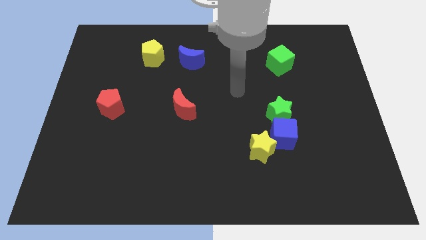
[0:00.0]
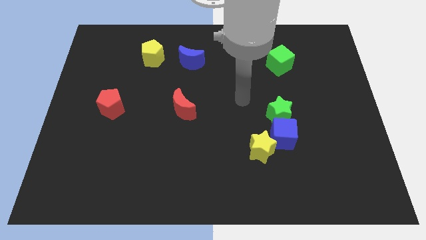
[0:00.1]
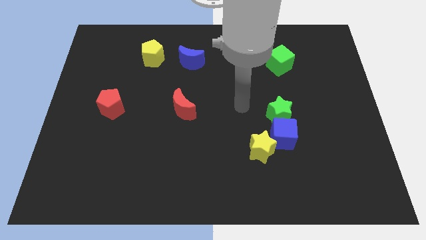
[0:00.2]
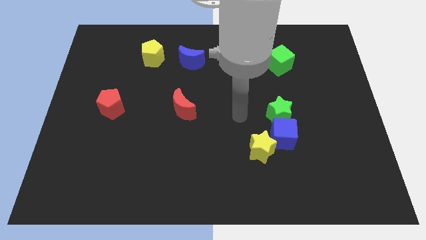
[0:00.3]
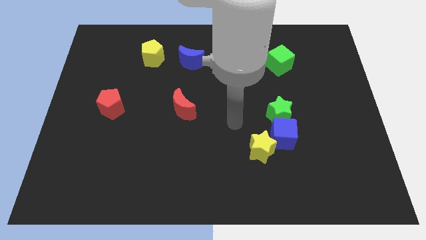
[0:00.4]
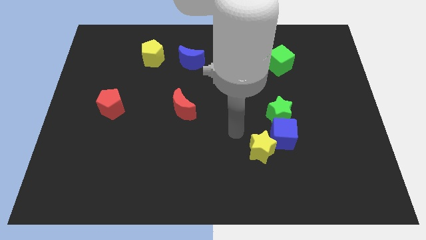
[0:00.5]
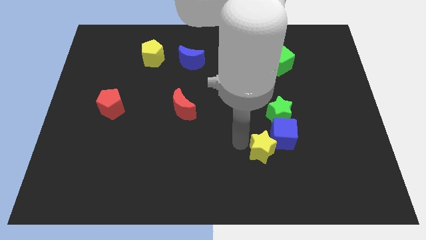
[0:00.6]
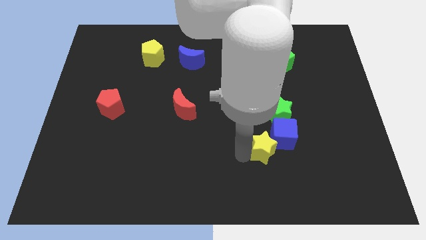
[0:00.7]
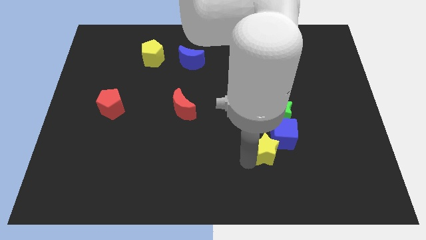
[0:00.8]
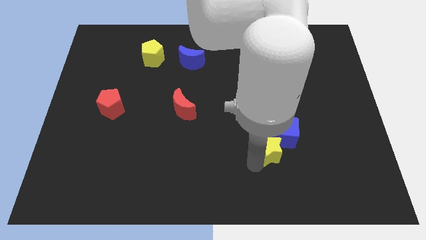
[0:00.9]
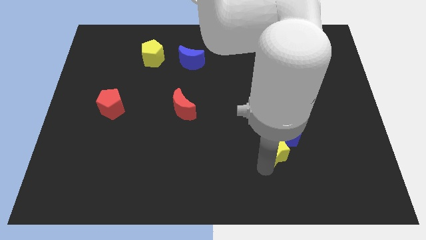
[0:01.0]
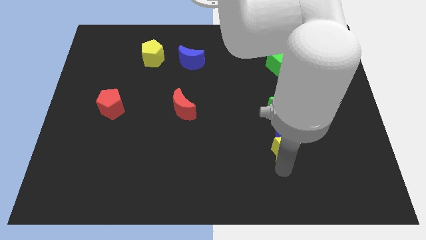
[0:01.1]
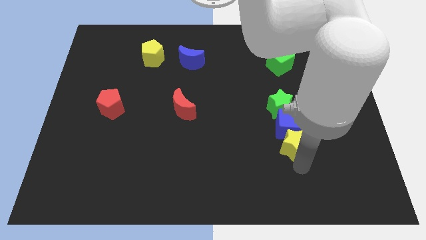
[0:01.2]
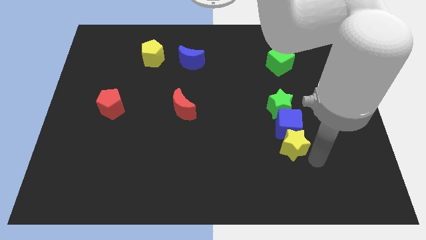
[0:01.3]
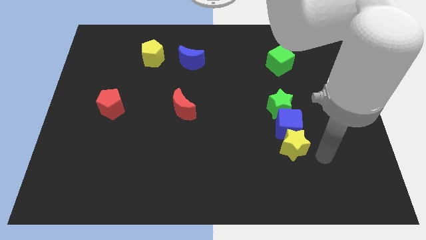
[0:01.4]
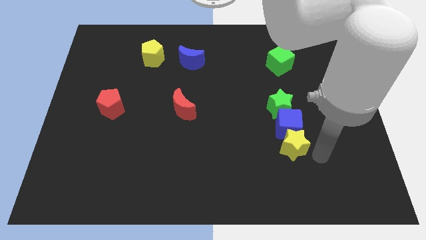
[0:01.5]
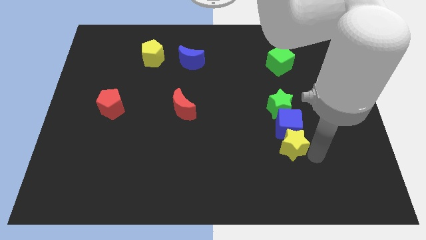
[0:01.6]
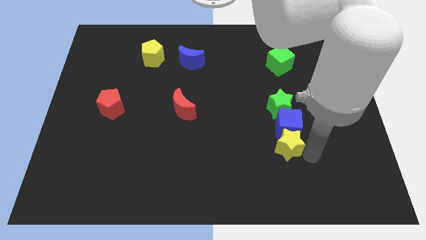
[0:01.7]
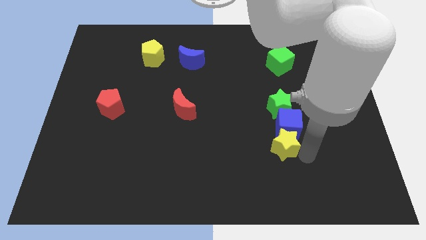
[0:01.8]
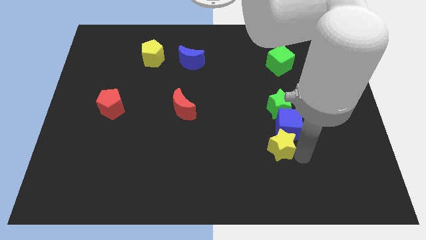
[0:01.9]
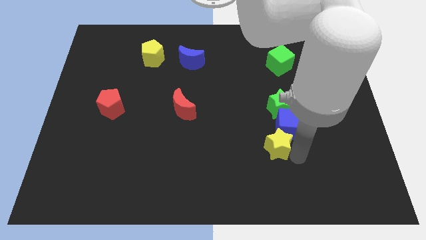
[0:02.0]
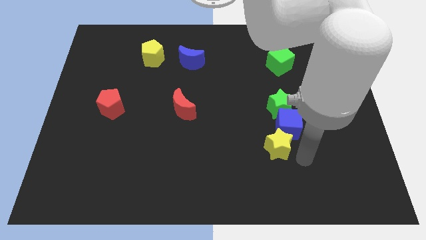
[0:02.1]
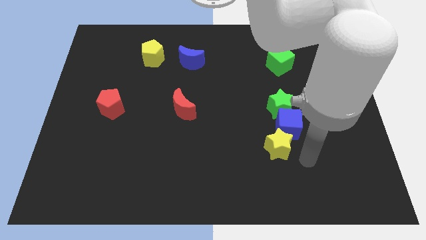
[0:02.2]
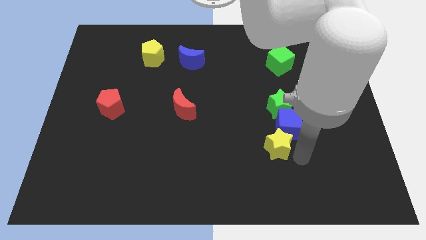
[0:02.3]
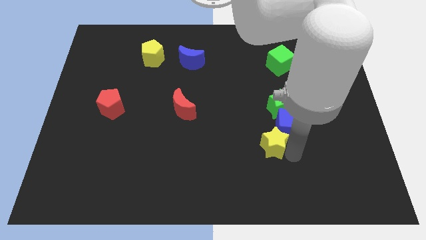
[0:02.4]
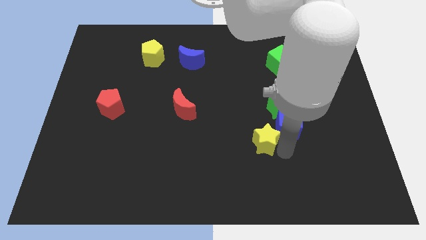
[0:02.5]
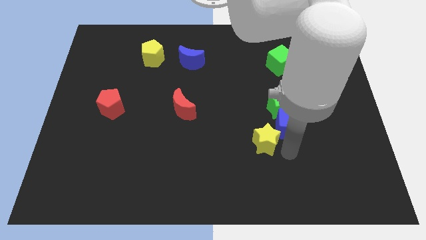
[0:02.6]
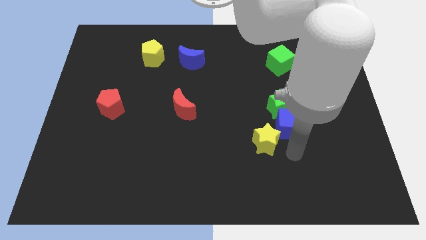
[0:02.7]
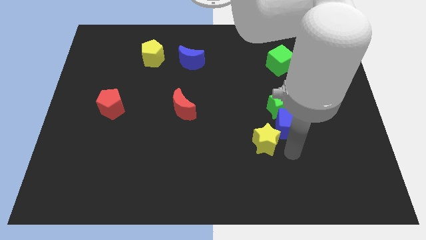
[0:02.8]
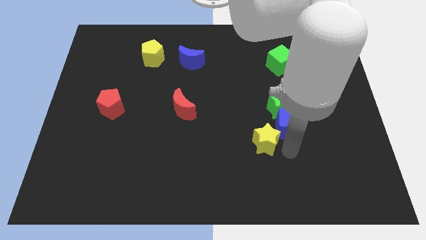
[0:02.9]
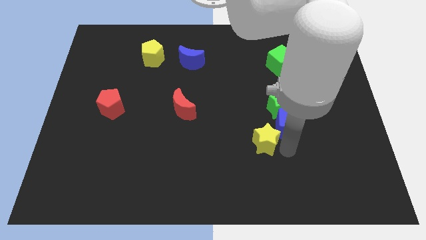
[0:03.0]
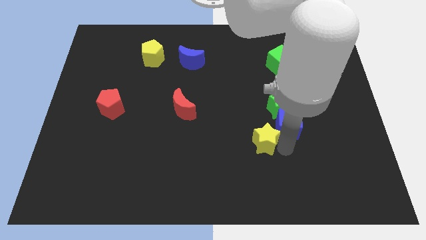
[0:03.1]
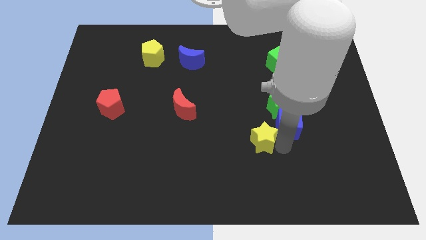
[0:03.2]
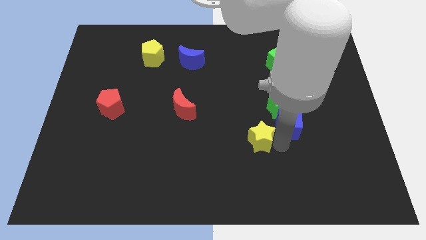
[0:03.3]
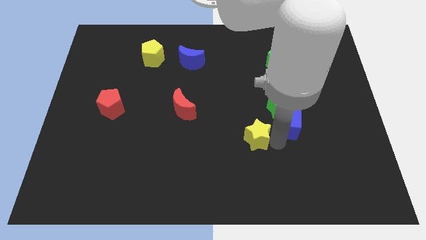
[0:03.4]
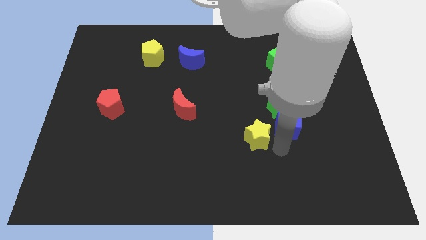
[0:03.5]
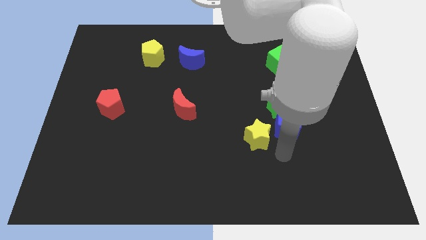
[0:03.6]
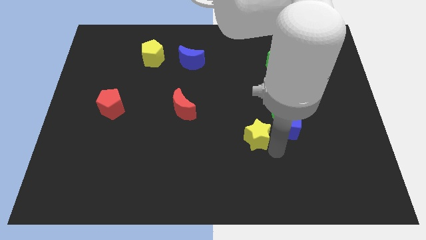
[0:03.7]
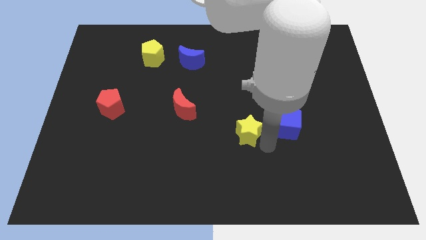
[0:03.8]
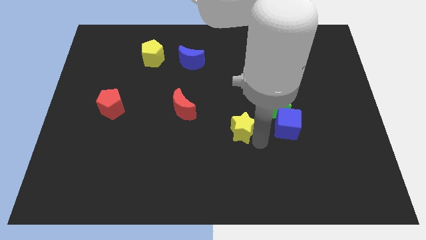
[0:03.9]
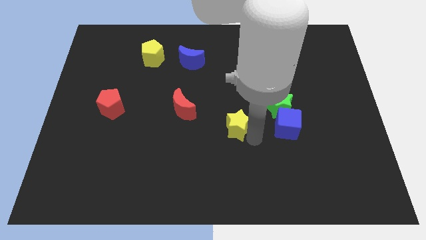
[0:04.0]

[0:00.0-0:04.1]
push the yellow star upwards and to the left a bit

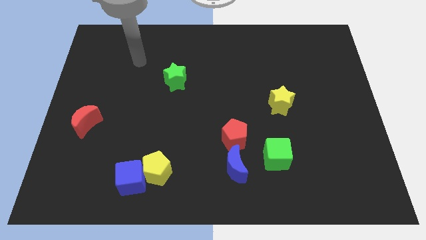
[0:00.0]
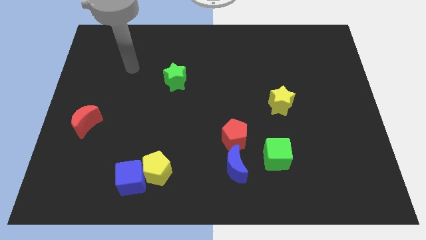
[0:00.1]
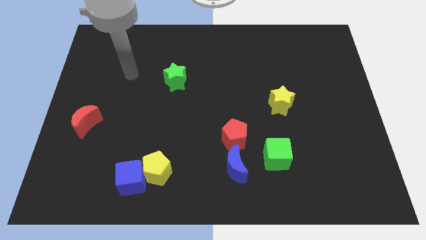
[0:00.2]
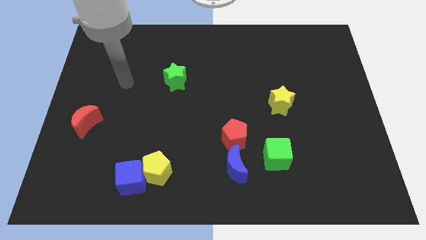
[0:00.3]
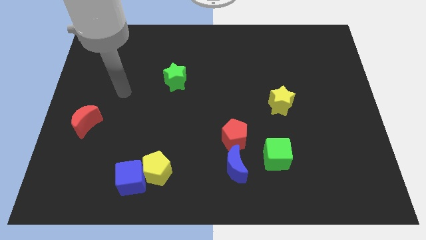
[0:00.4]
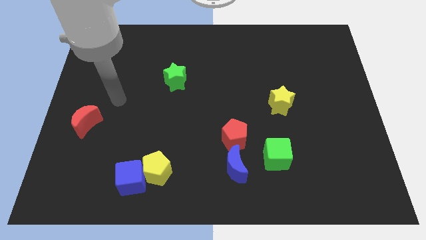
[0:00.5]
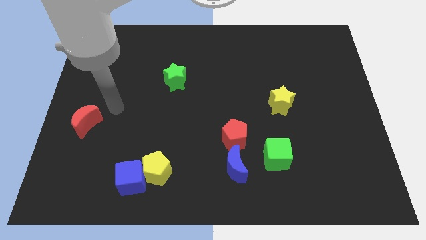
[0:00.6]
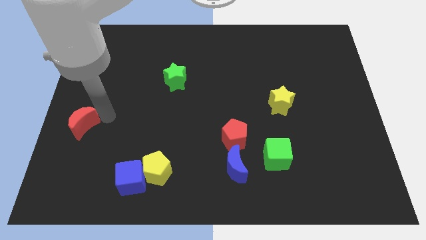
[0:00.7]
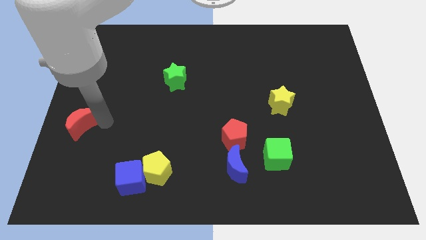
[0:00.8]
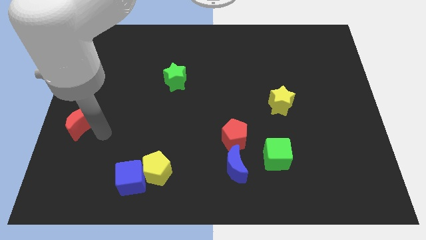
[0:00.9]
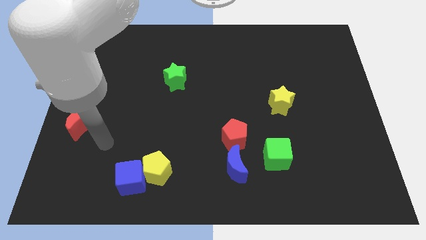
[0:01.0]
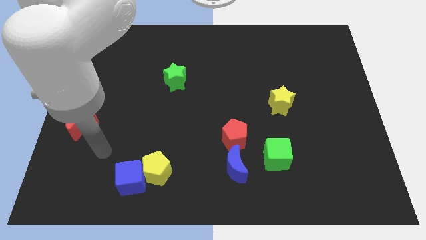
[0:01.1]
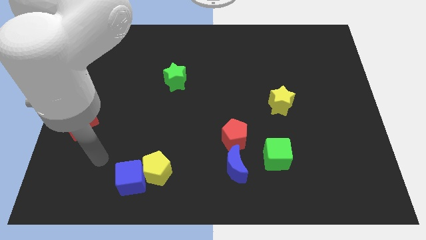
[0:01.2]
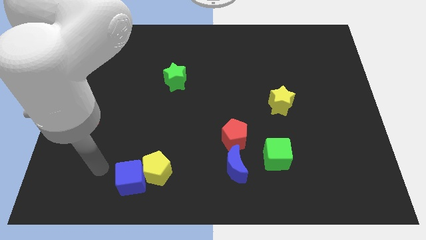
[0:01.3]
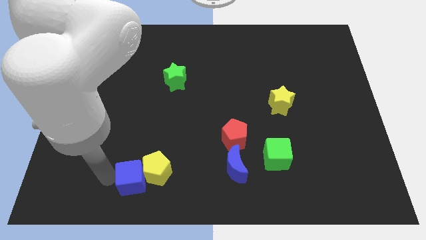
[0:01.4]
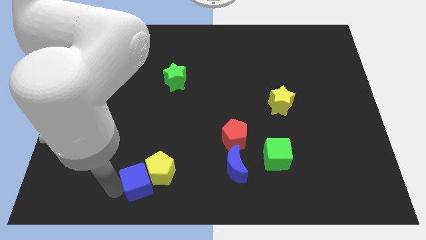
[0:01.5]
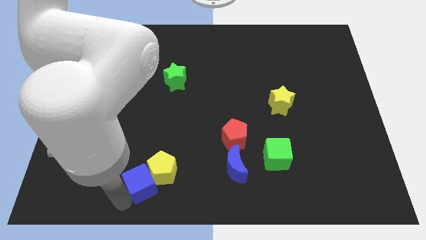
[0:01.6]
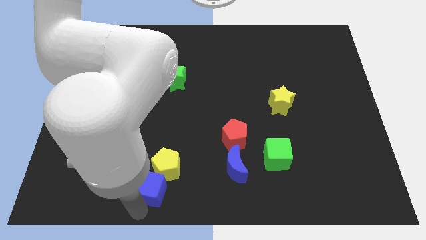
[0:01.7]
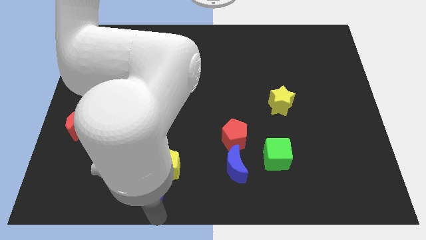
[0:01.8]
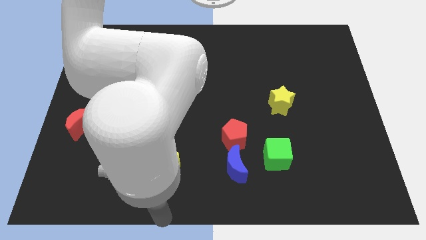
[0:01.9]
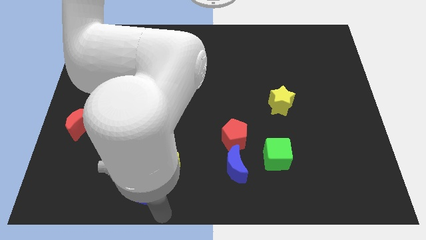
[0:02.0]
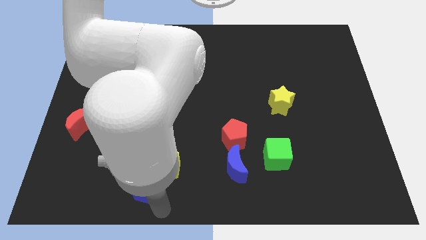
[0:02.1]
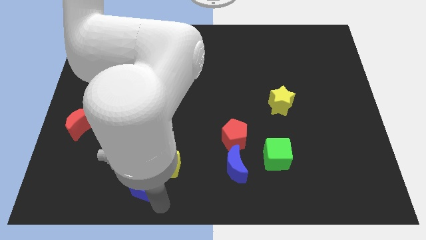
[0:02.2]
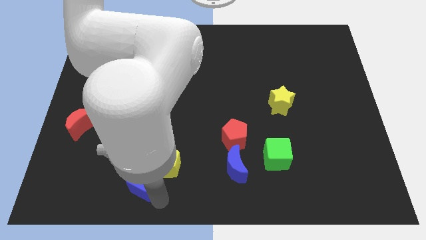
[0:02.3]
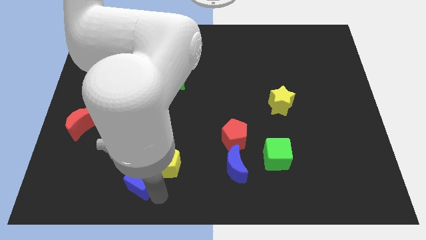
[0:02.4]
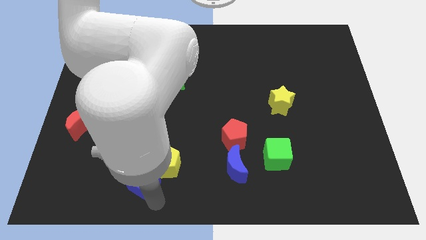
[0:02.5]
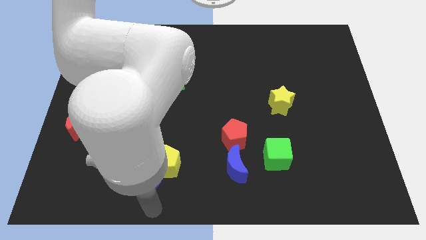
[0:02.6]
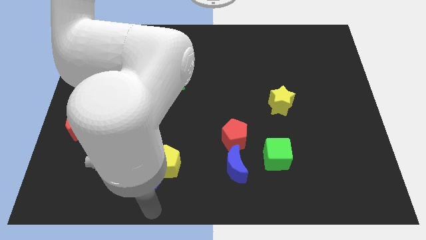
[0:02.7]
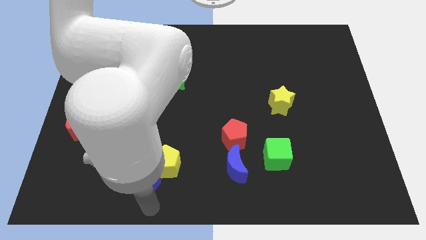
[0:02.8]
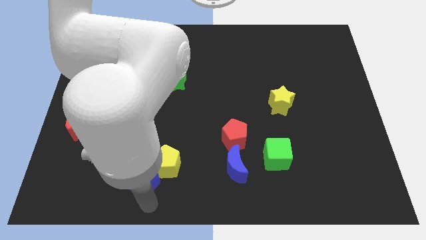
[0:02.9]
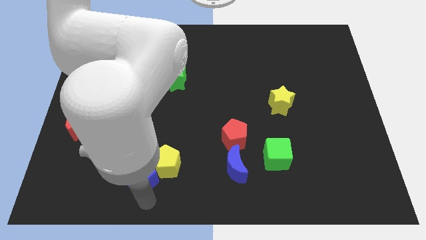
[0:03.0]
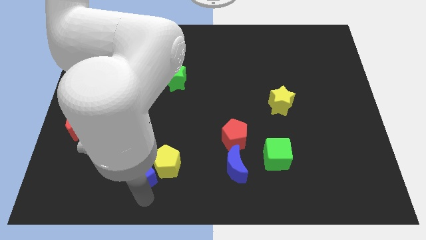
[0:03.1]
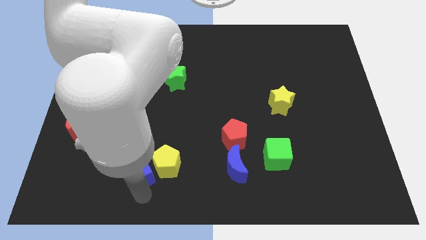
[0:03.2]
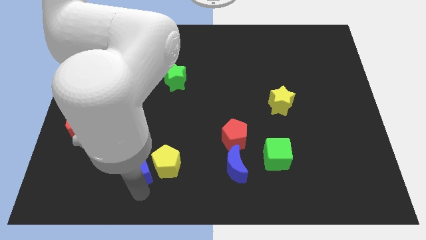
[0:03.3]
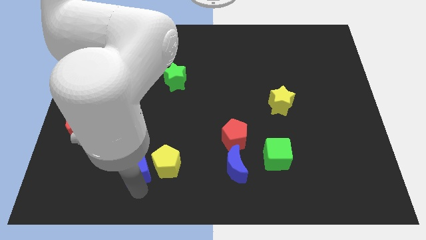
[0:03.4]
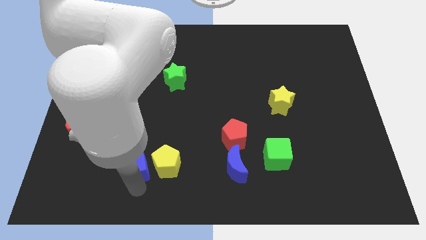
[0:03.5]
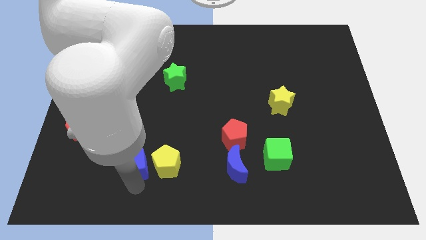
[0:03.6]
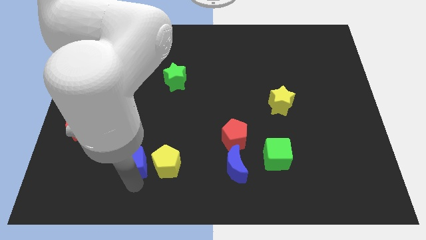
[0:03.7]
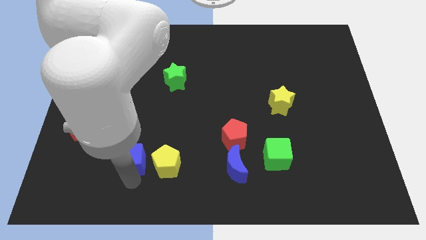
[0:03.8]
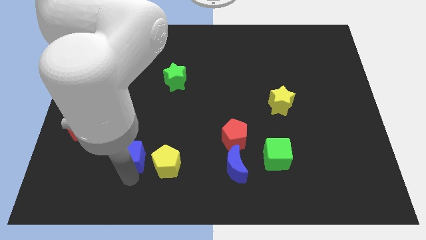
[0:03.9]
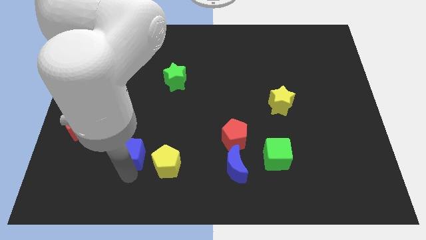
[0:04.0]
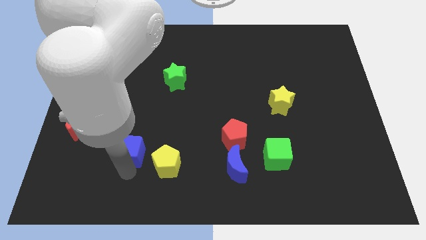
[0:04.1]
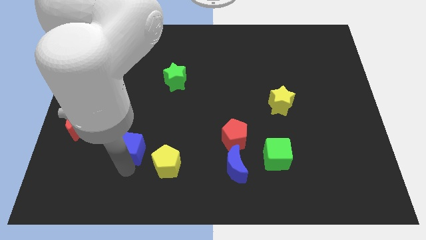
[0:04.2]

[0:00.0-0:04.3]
move the blue cube upwards a little bit
